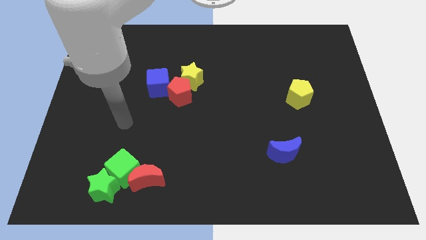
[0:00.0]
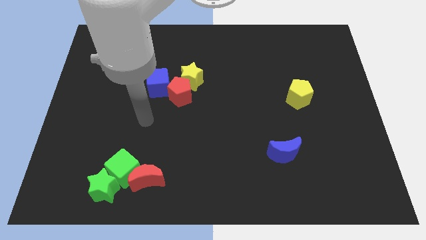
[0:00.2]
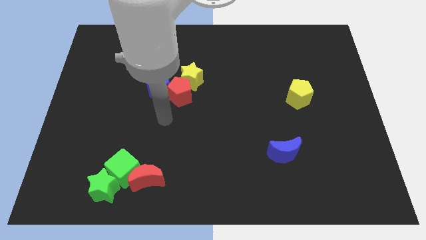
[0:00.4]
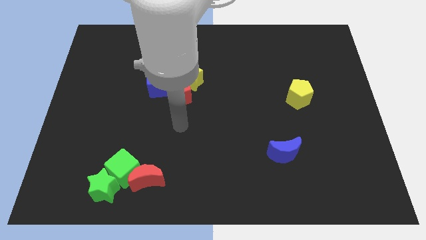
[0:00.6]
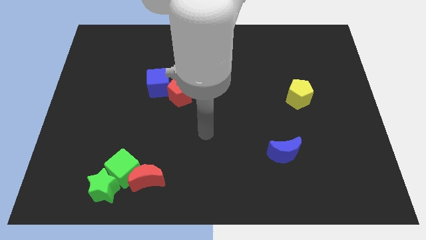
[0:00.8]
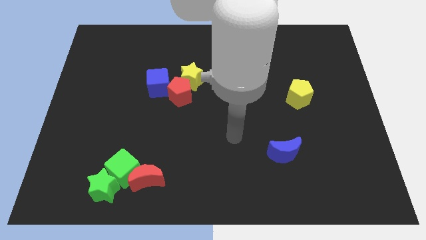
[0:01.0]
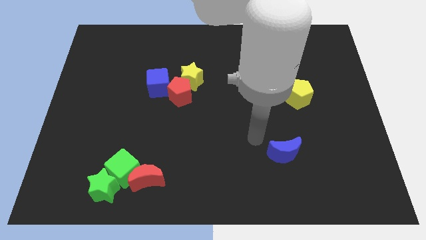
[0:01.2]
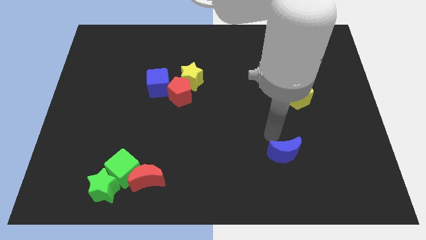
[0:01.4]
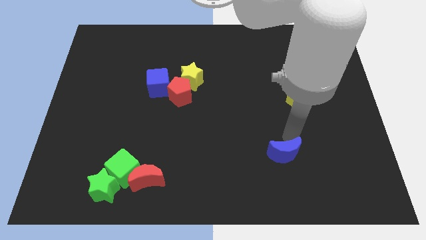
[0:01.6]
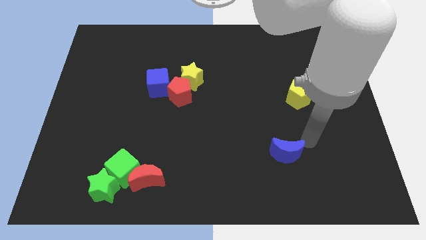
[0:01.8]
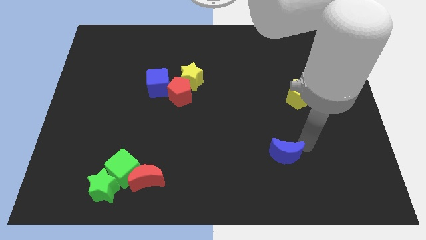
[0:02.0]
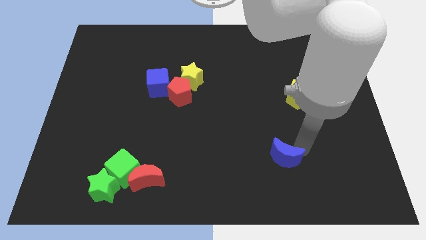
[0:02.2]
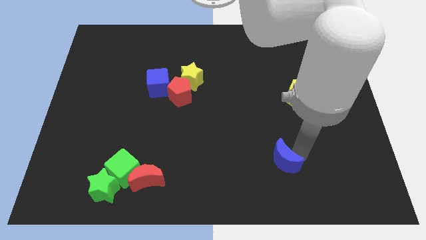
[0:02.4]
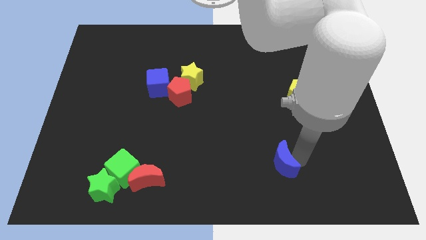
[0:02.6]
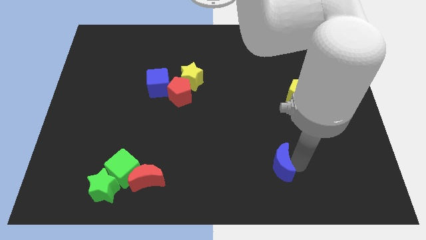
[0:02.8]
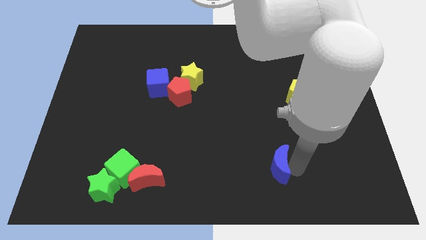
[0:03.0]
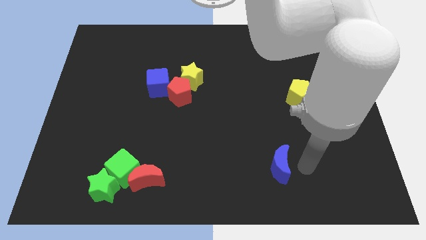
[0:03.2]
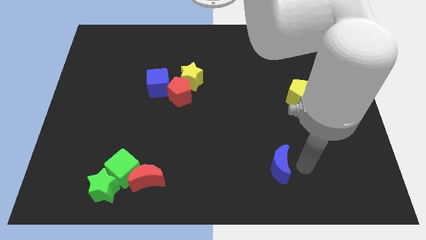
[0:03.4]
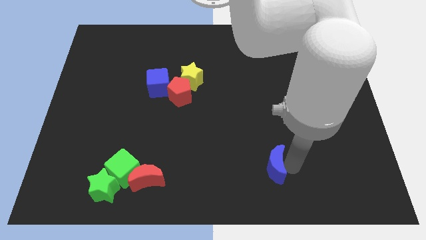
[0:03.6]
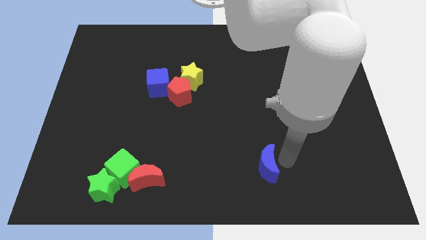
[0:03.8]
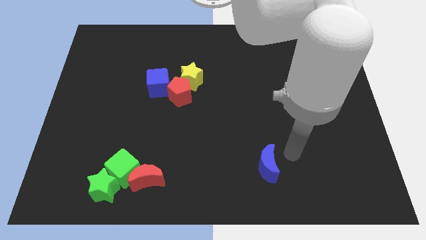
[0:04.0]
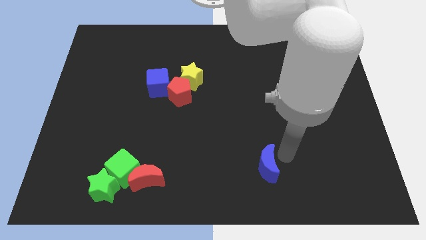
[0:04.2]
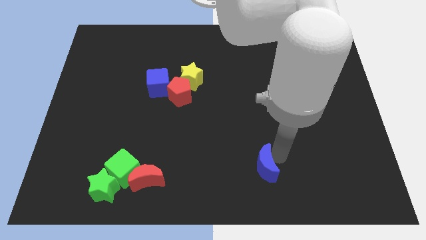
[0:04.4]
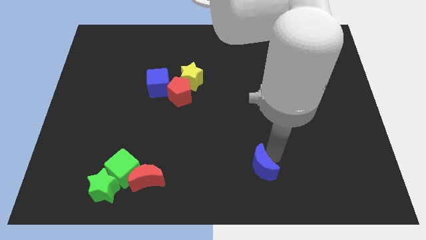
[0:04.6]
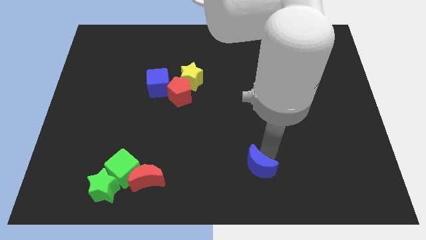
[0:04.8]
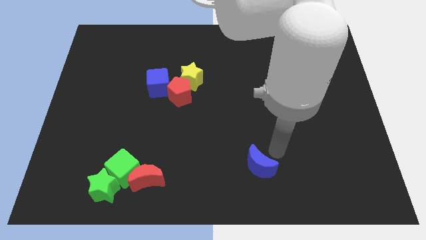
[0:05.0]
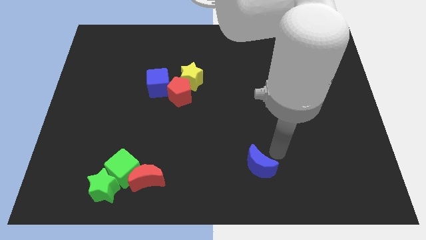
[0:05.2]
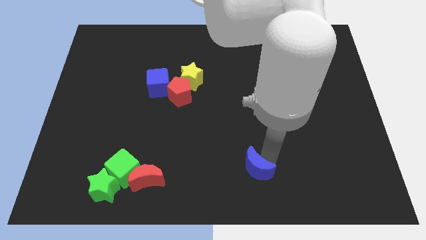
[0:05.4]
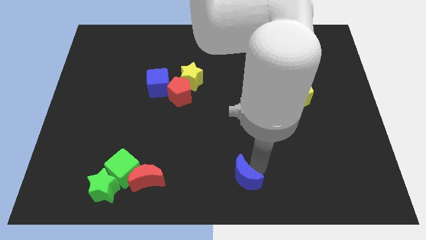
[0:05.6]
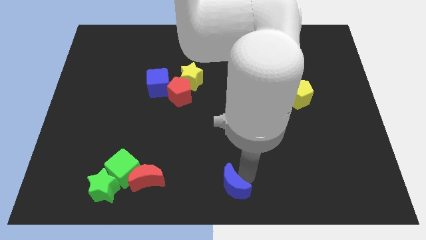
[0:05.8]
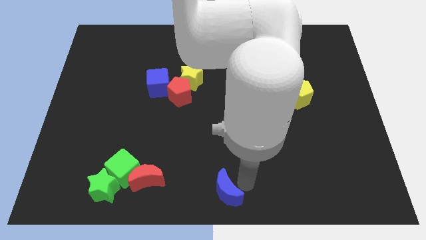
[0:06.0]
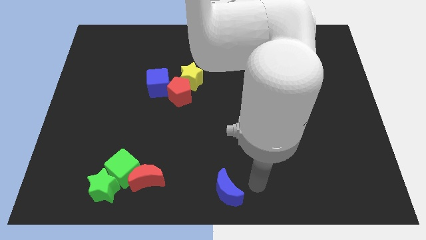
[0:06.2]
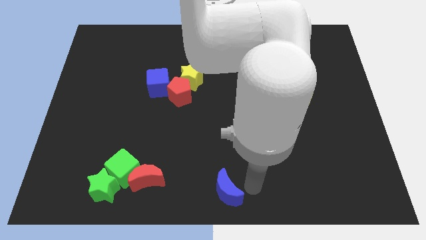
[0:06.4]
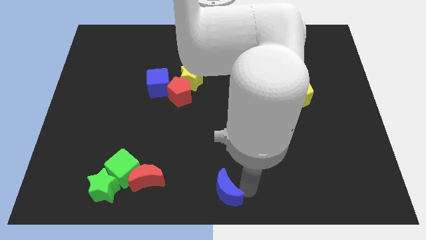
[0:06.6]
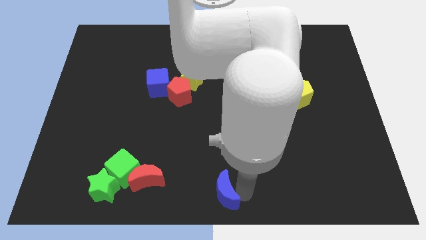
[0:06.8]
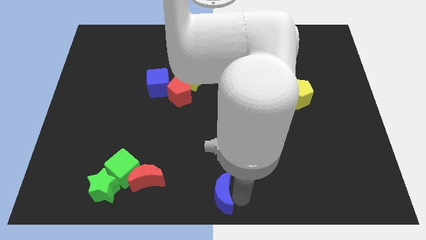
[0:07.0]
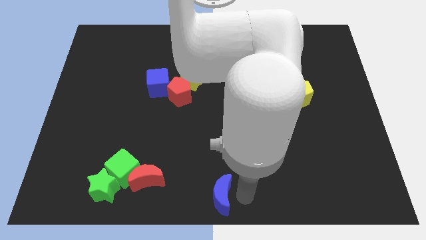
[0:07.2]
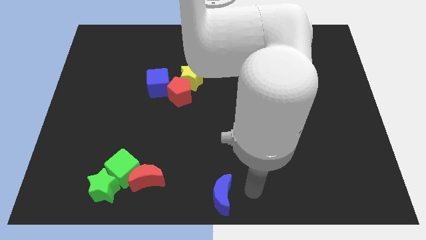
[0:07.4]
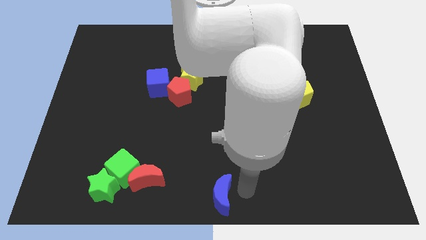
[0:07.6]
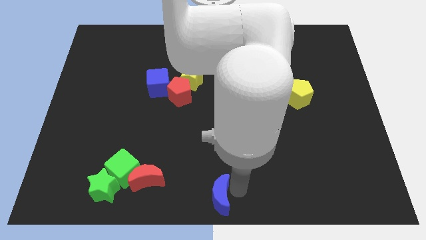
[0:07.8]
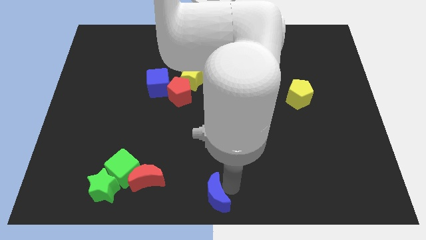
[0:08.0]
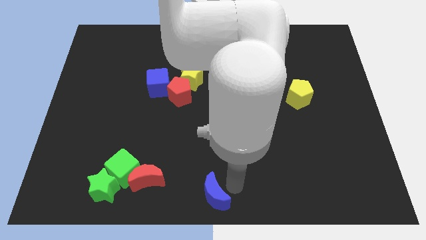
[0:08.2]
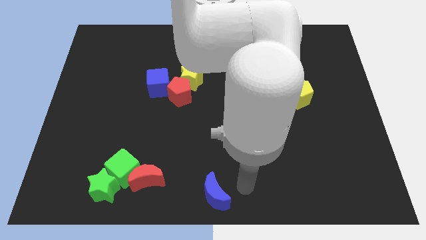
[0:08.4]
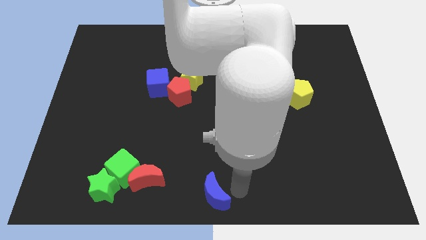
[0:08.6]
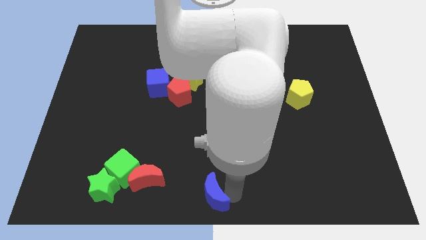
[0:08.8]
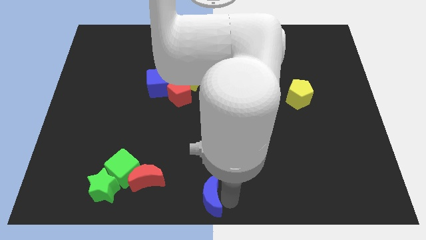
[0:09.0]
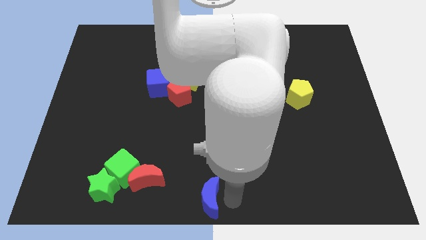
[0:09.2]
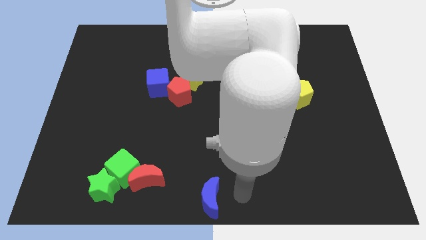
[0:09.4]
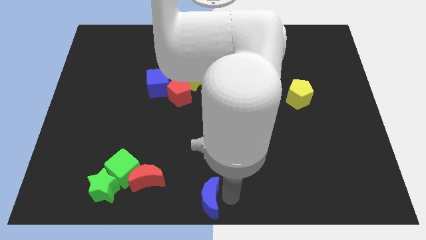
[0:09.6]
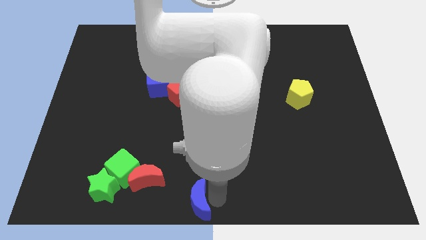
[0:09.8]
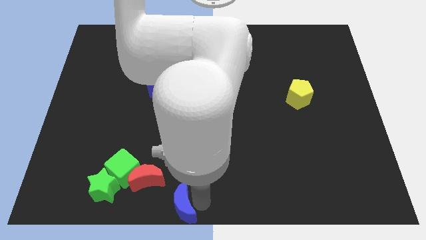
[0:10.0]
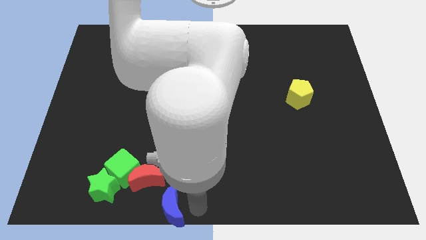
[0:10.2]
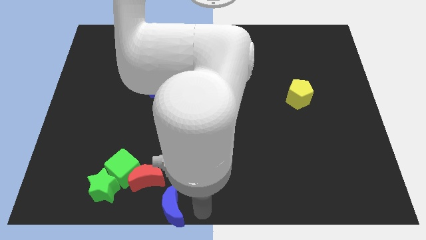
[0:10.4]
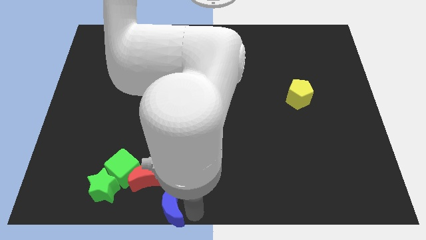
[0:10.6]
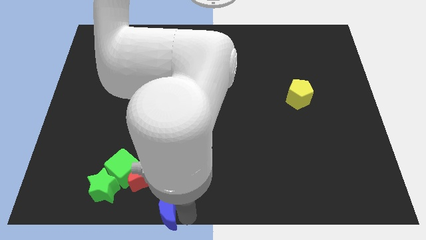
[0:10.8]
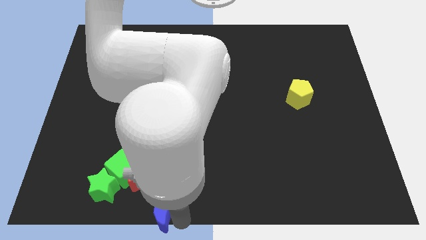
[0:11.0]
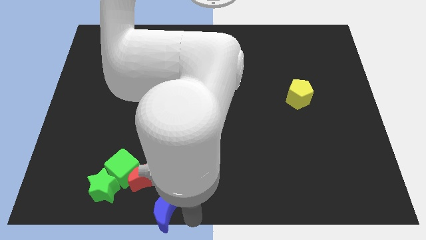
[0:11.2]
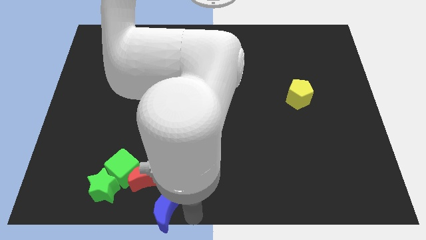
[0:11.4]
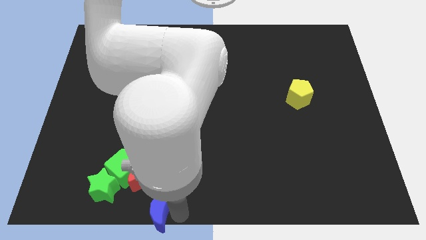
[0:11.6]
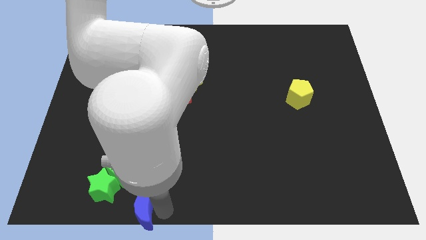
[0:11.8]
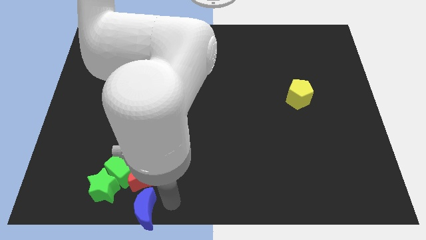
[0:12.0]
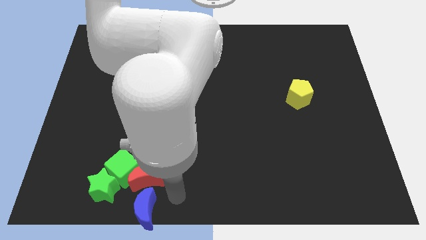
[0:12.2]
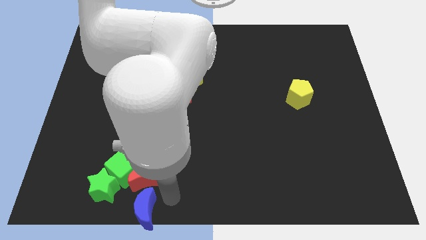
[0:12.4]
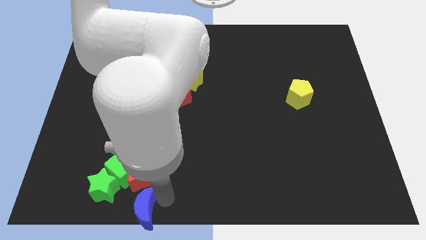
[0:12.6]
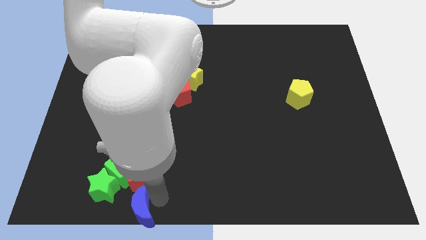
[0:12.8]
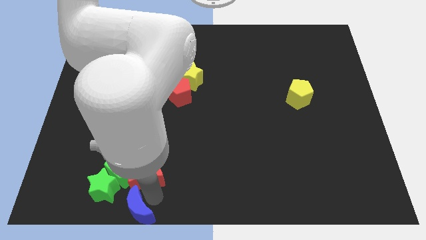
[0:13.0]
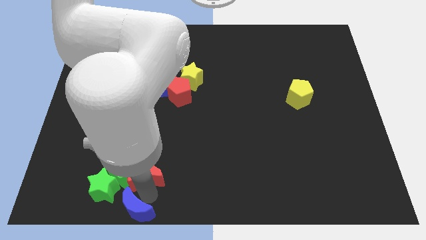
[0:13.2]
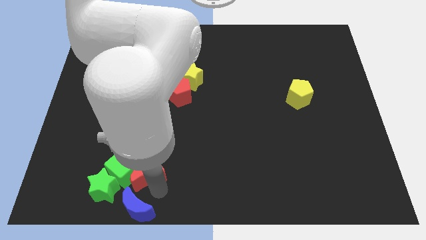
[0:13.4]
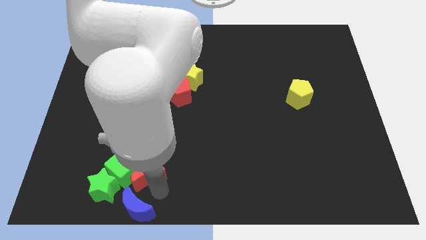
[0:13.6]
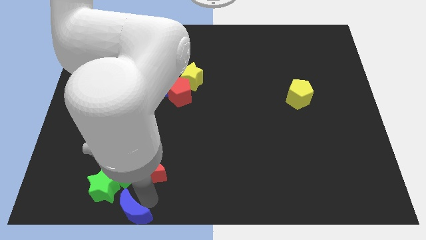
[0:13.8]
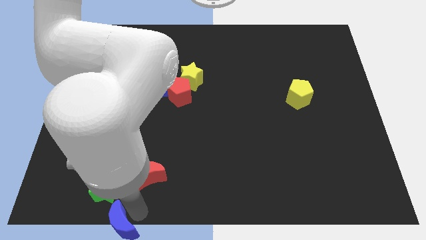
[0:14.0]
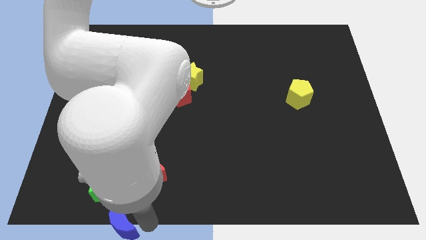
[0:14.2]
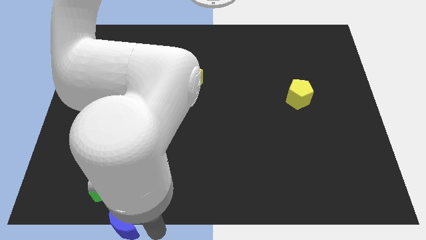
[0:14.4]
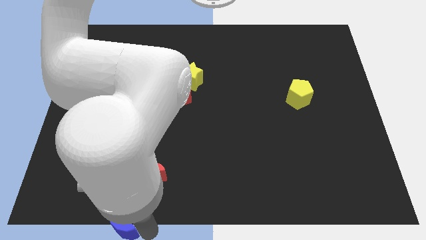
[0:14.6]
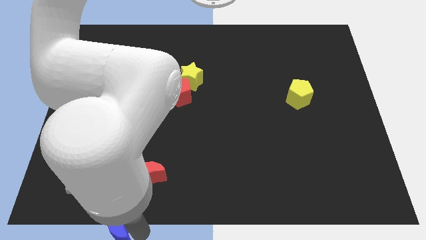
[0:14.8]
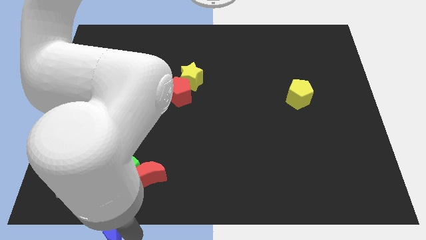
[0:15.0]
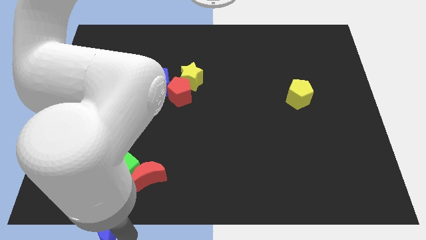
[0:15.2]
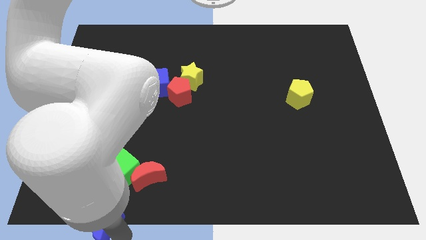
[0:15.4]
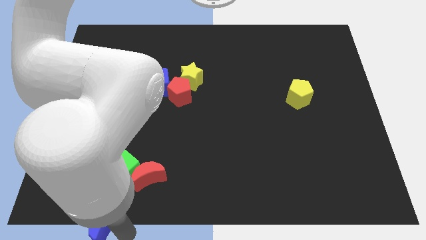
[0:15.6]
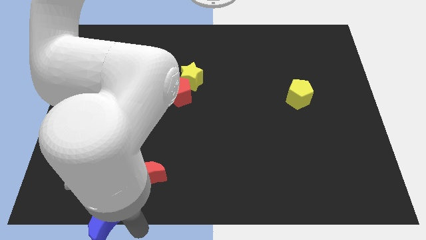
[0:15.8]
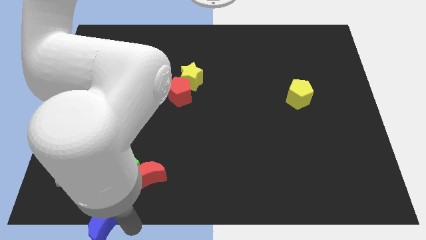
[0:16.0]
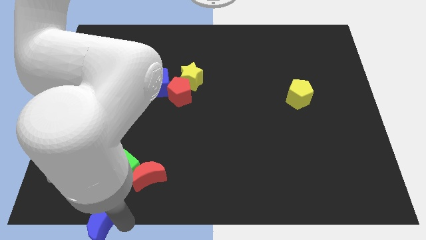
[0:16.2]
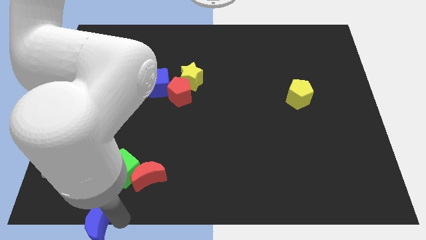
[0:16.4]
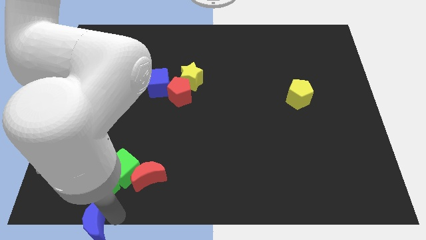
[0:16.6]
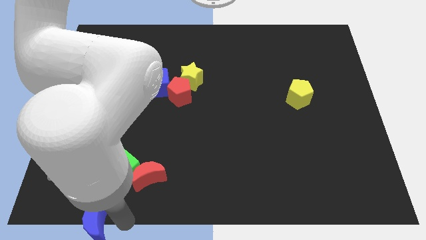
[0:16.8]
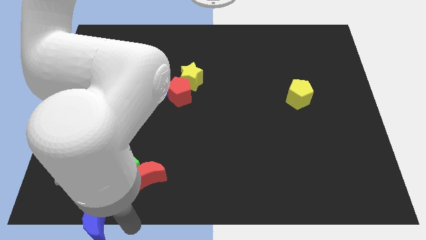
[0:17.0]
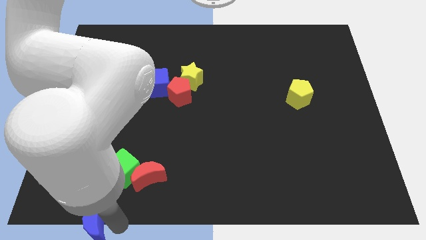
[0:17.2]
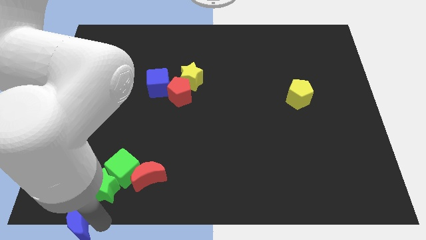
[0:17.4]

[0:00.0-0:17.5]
move the blue moon to the bottom left
